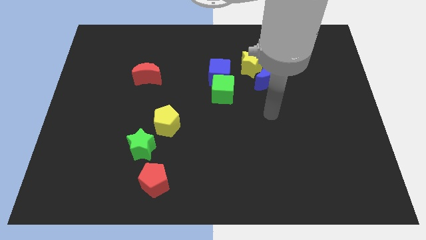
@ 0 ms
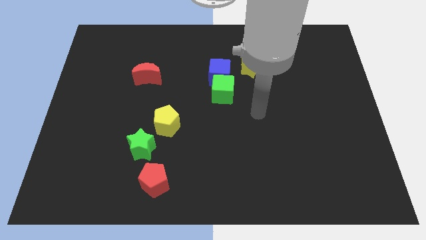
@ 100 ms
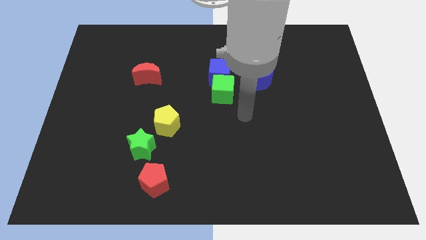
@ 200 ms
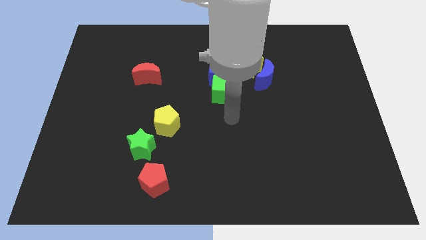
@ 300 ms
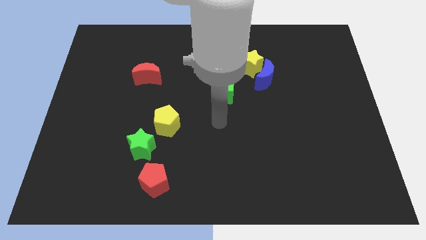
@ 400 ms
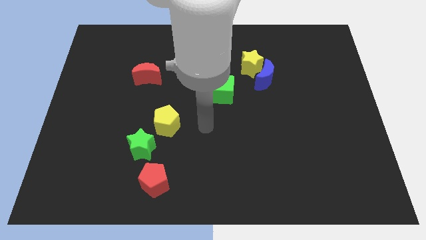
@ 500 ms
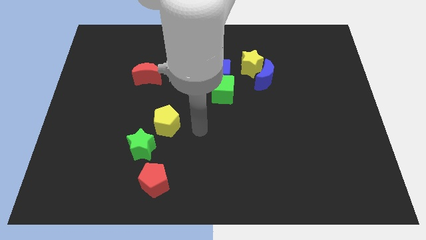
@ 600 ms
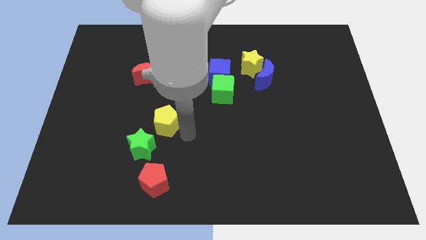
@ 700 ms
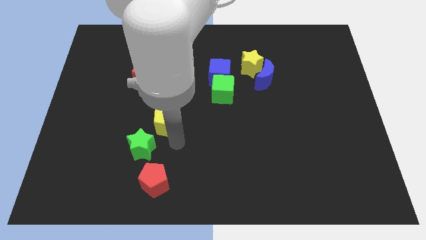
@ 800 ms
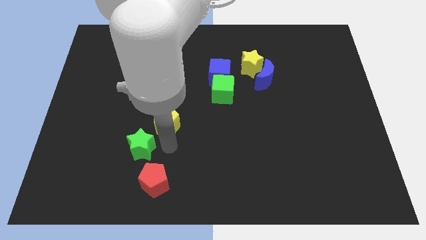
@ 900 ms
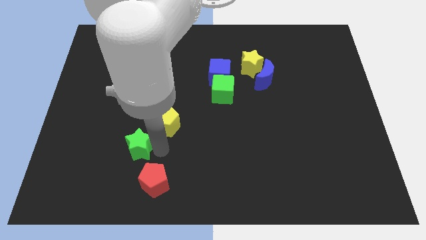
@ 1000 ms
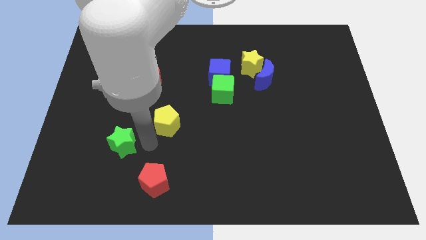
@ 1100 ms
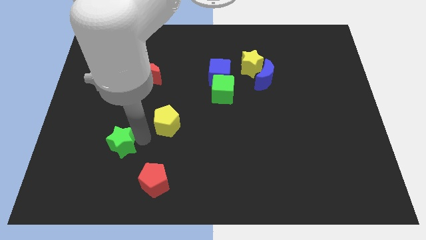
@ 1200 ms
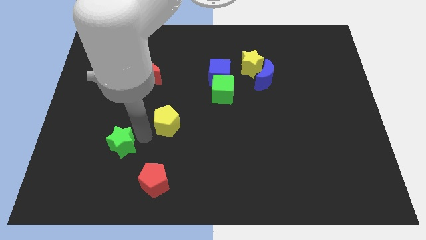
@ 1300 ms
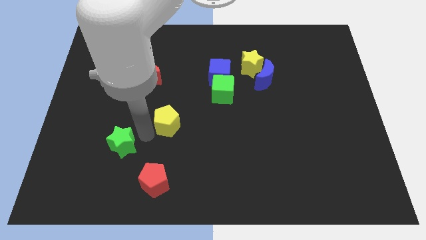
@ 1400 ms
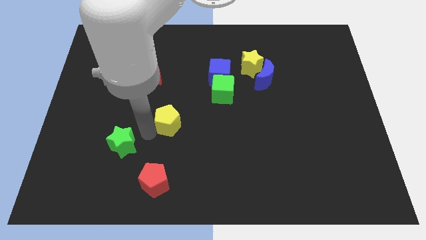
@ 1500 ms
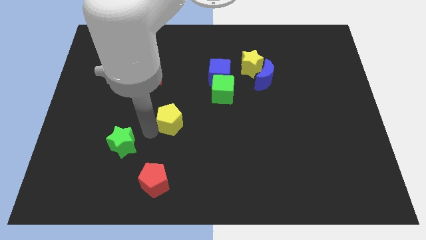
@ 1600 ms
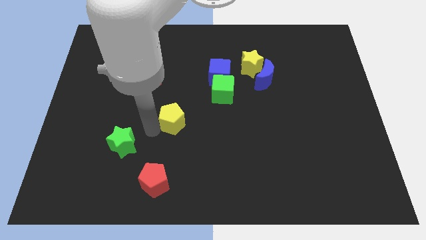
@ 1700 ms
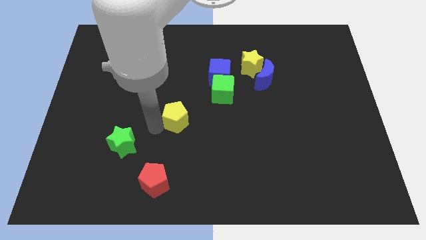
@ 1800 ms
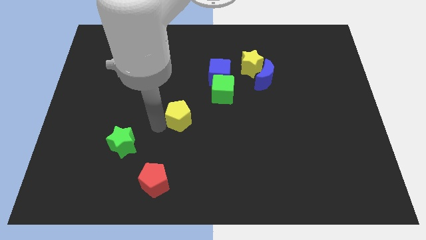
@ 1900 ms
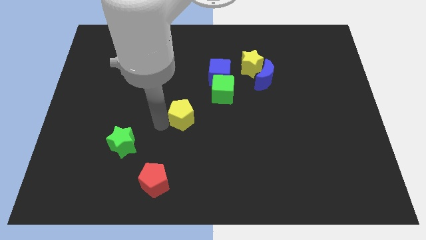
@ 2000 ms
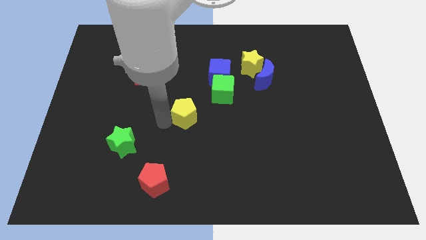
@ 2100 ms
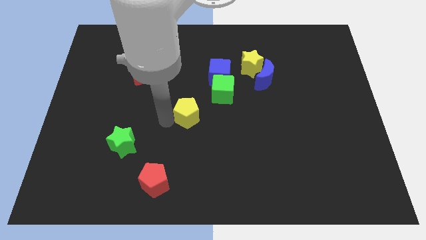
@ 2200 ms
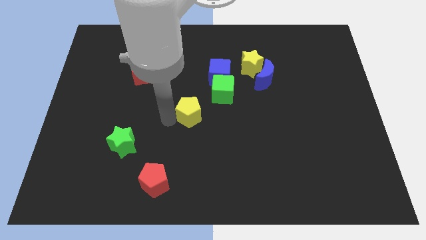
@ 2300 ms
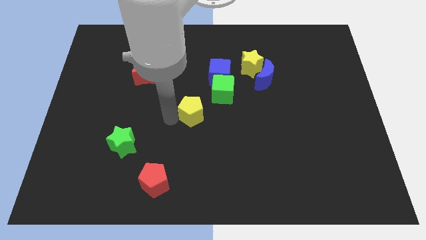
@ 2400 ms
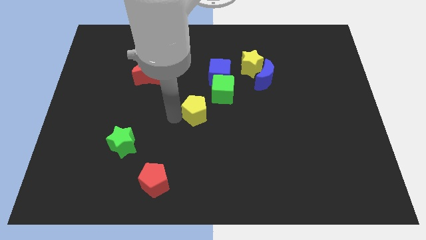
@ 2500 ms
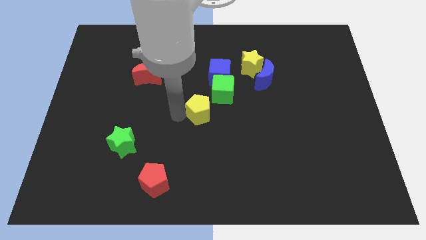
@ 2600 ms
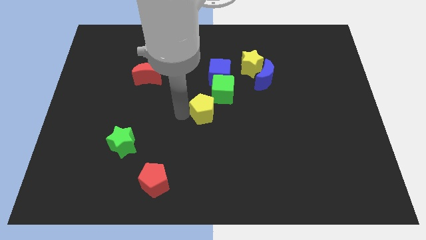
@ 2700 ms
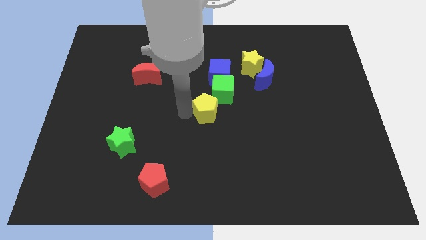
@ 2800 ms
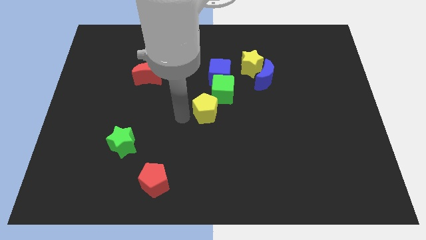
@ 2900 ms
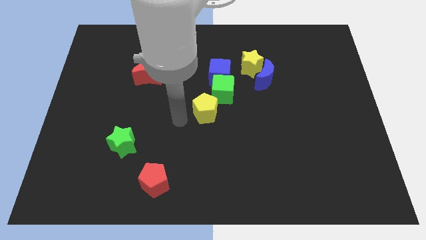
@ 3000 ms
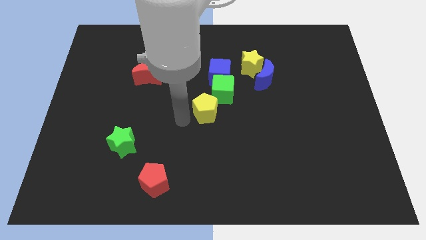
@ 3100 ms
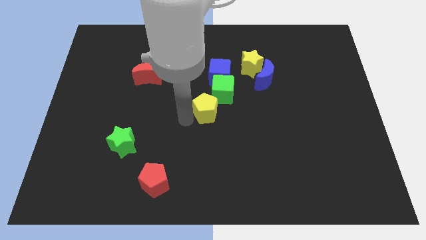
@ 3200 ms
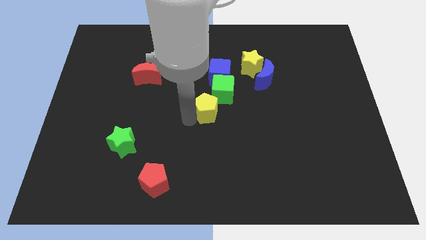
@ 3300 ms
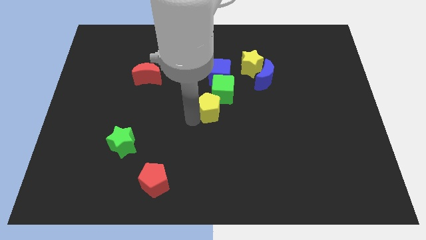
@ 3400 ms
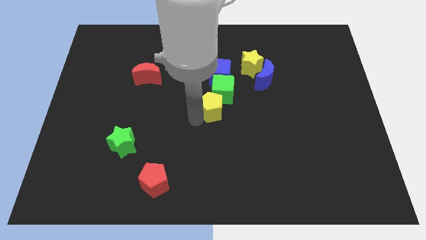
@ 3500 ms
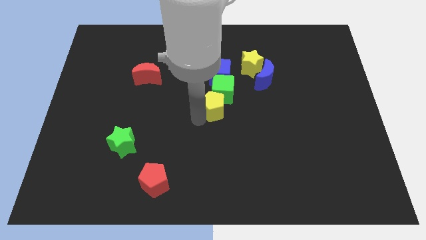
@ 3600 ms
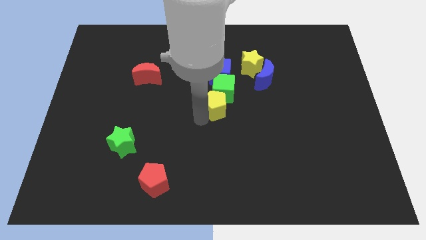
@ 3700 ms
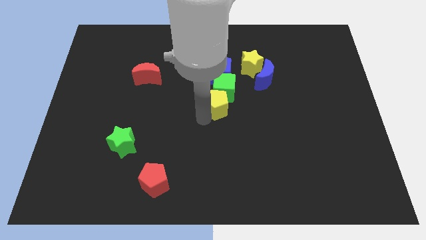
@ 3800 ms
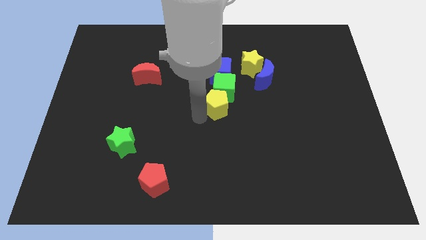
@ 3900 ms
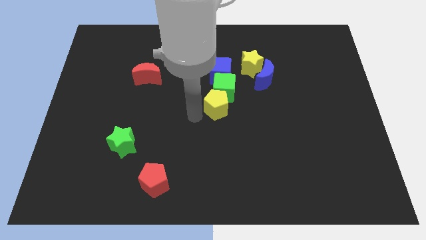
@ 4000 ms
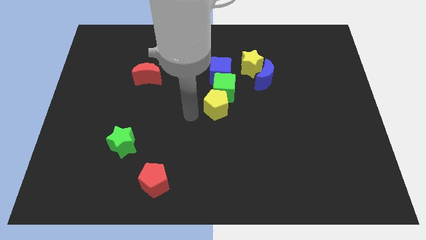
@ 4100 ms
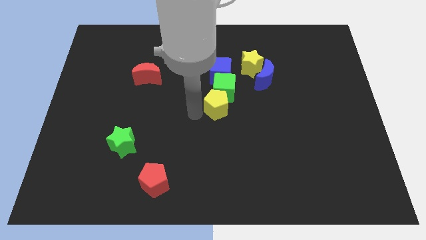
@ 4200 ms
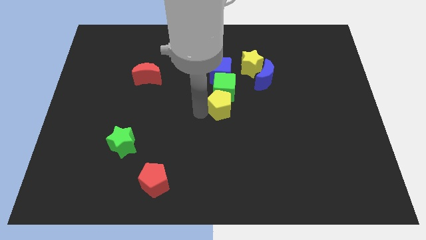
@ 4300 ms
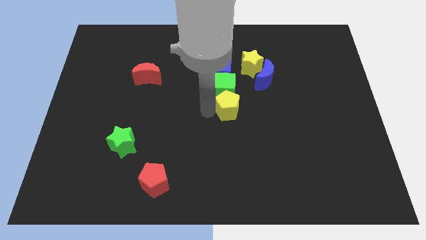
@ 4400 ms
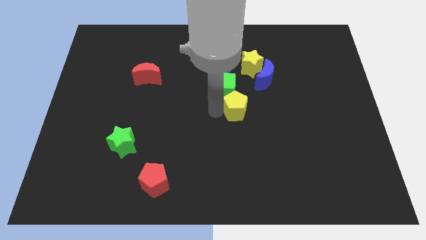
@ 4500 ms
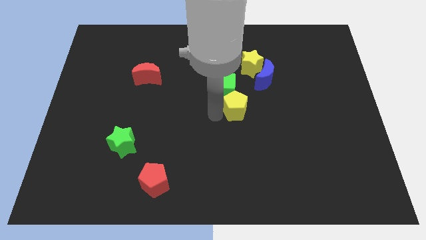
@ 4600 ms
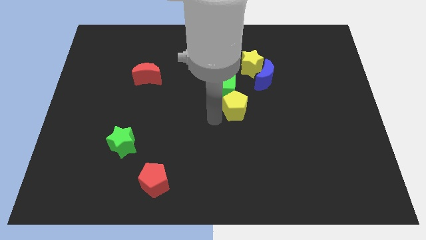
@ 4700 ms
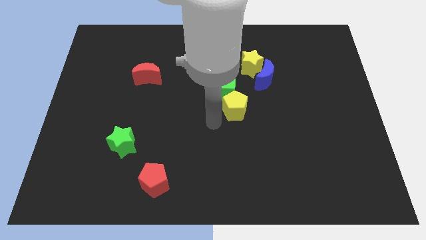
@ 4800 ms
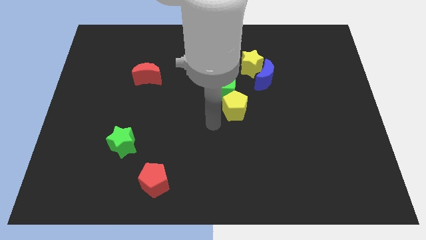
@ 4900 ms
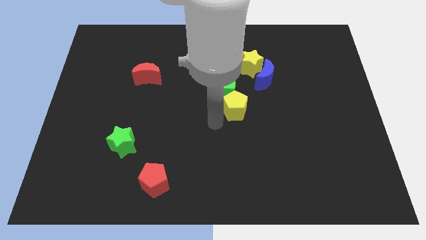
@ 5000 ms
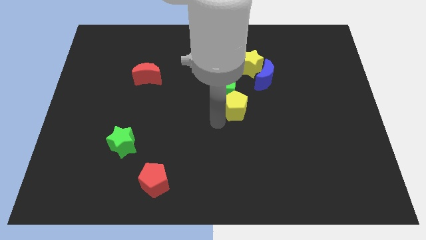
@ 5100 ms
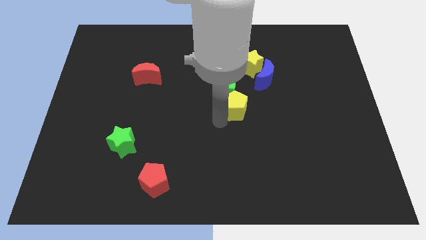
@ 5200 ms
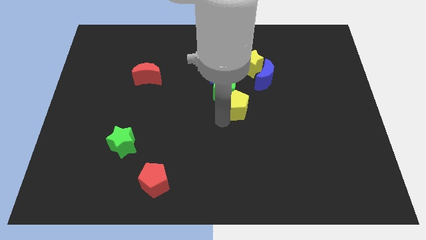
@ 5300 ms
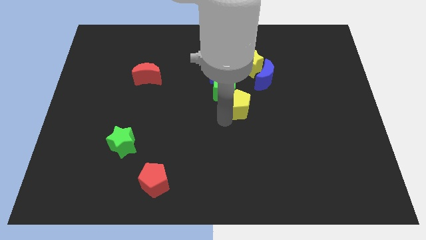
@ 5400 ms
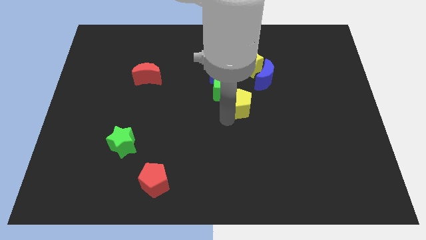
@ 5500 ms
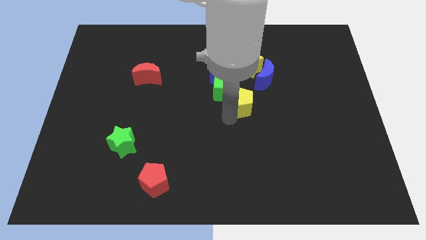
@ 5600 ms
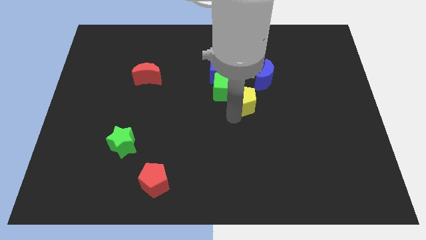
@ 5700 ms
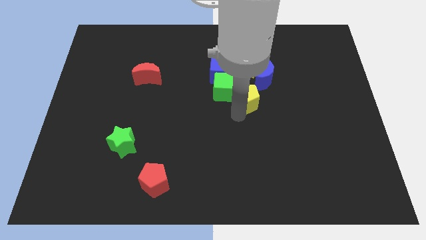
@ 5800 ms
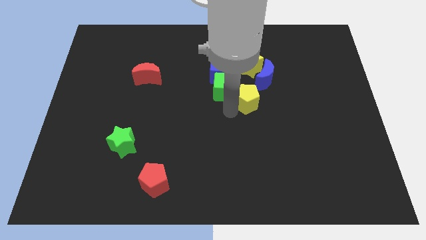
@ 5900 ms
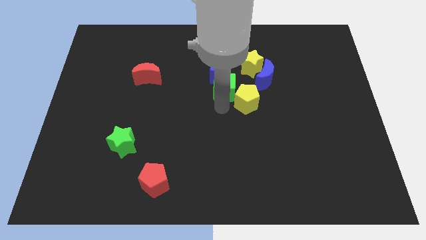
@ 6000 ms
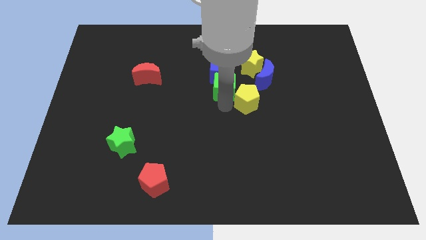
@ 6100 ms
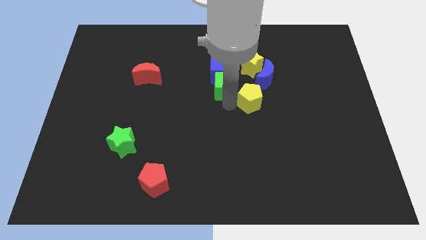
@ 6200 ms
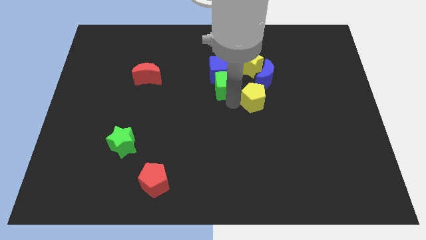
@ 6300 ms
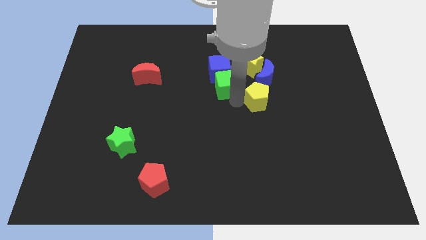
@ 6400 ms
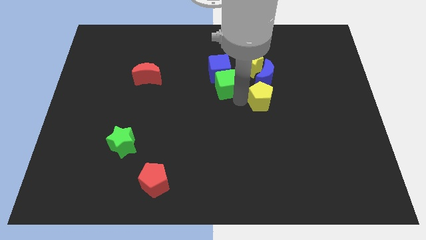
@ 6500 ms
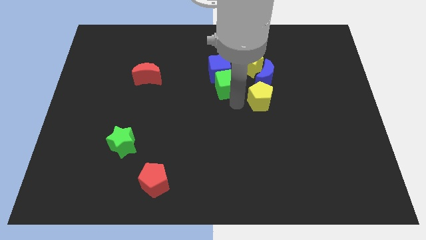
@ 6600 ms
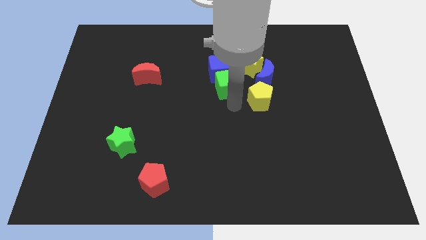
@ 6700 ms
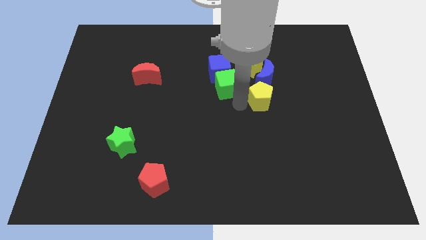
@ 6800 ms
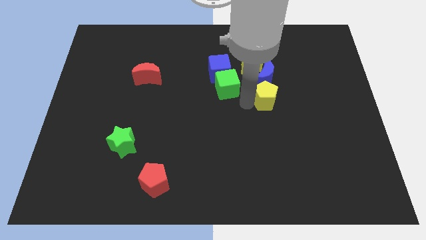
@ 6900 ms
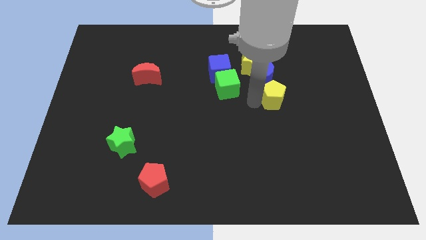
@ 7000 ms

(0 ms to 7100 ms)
move the yellow pentagon diagonally down and to the right of the blue moon
